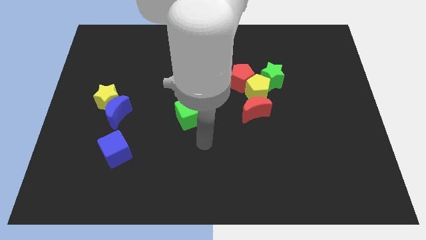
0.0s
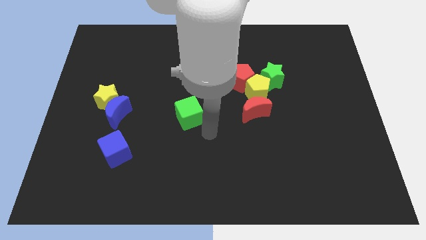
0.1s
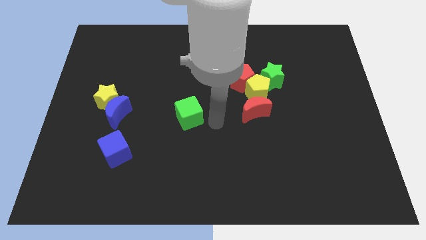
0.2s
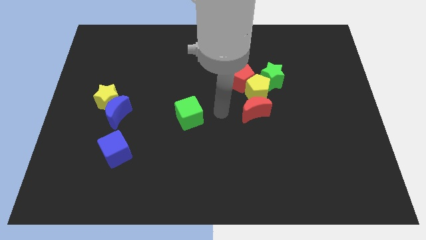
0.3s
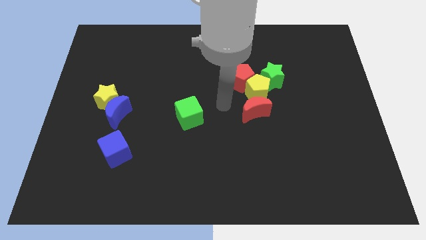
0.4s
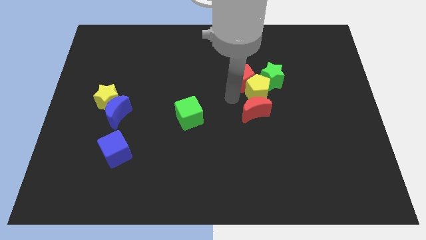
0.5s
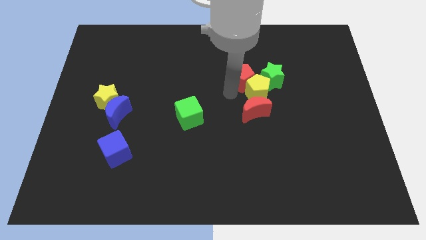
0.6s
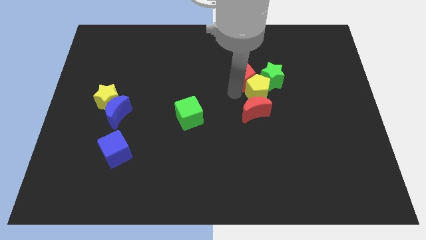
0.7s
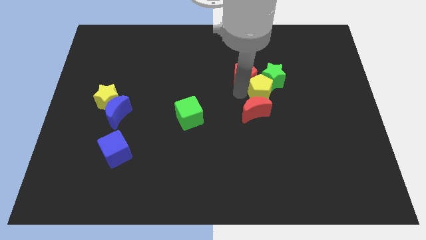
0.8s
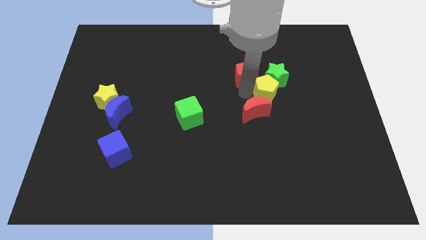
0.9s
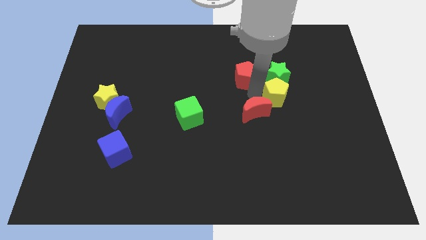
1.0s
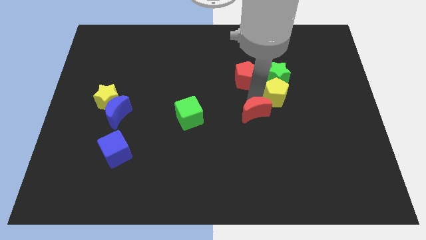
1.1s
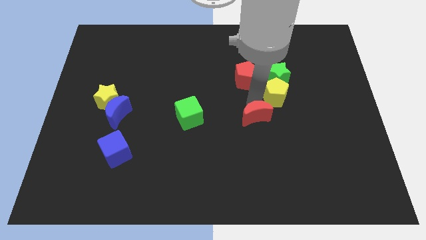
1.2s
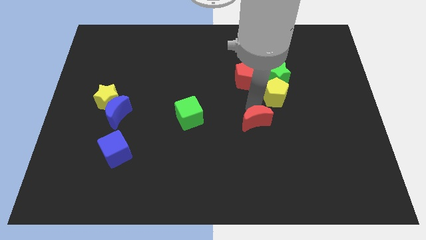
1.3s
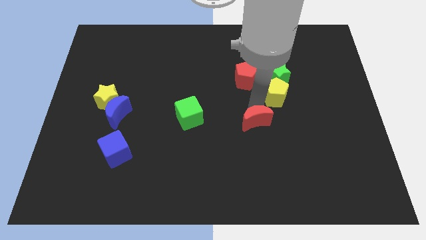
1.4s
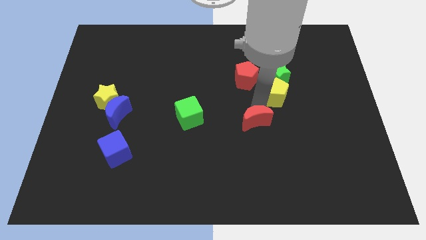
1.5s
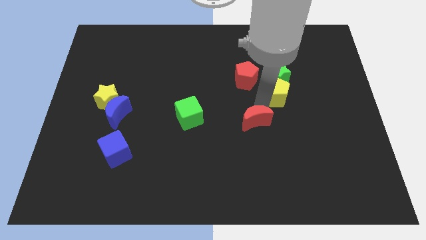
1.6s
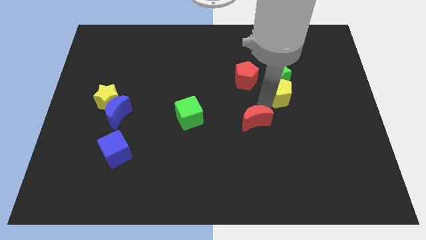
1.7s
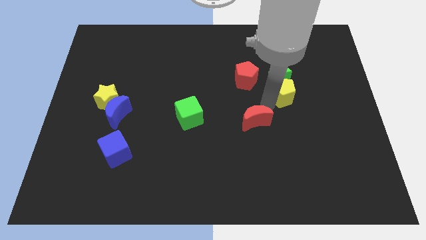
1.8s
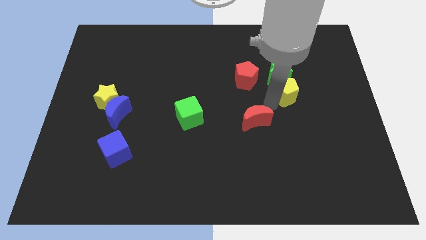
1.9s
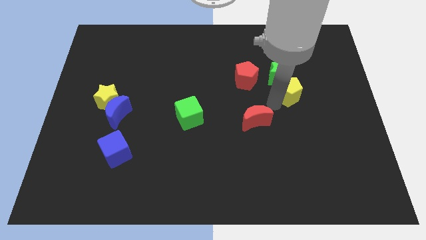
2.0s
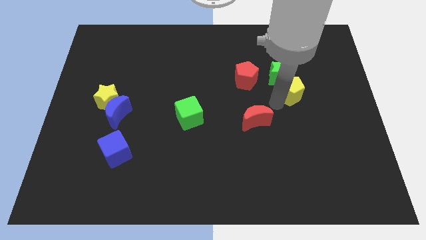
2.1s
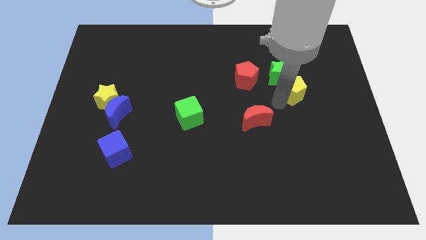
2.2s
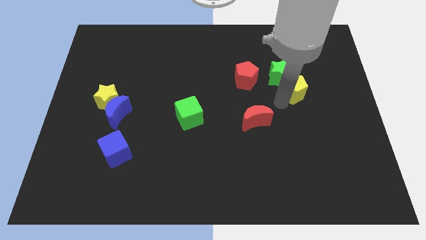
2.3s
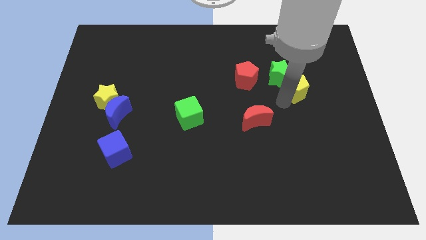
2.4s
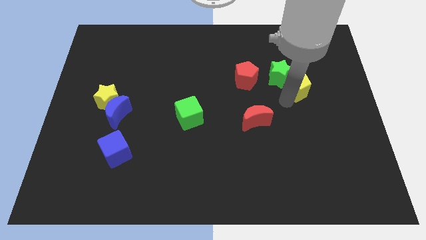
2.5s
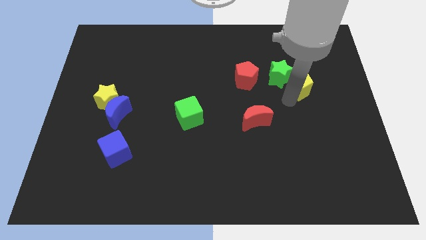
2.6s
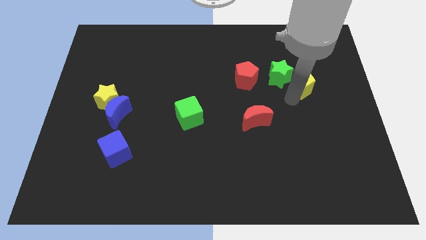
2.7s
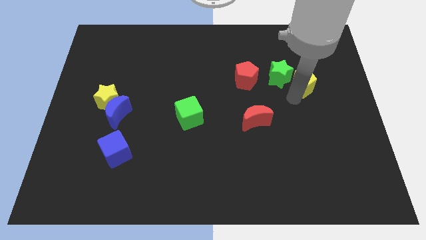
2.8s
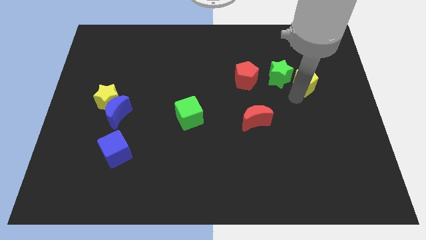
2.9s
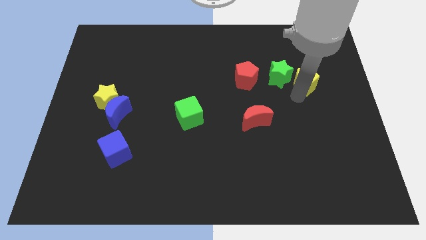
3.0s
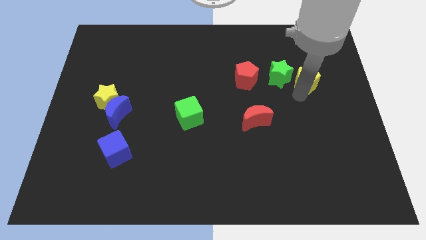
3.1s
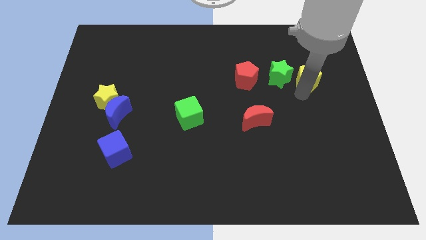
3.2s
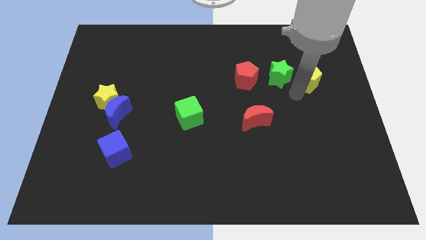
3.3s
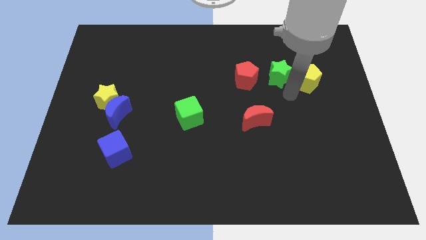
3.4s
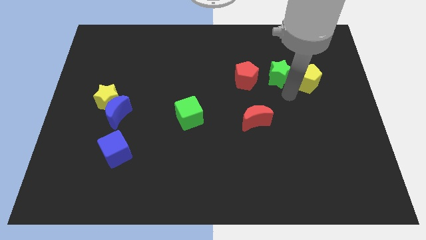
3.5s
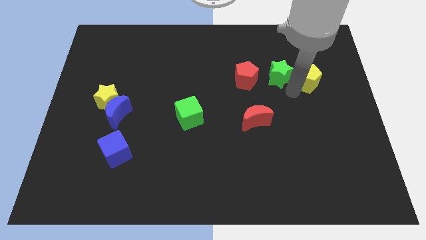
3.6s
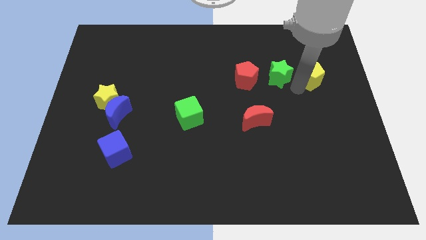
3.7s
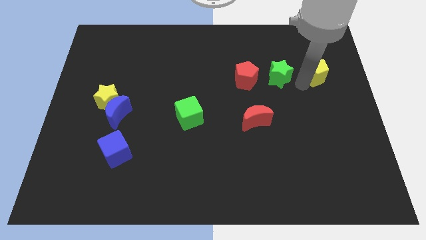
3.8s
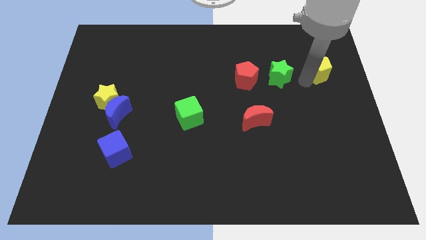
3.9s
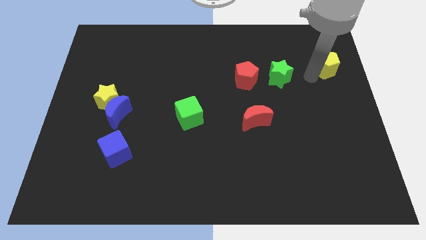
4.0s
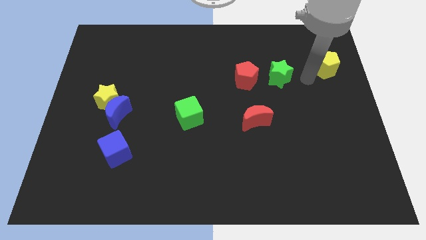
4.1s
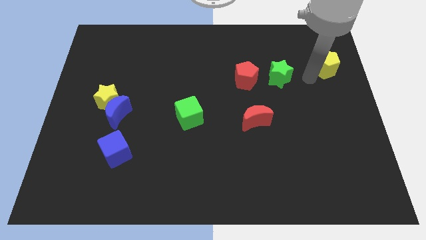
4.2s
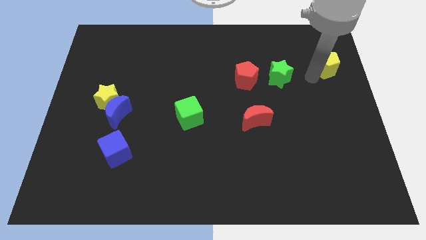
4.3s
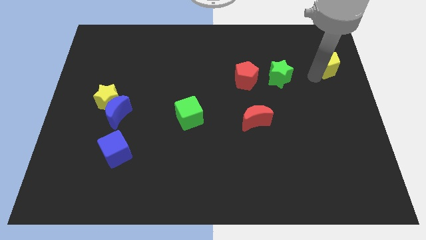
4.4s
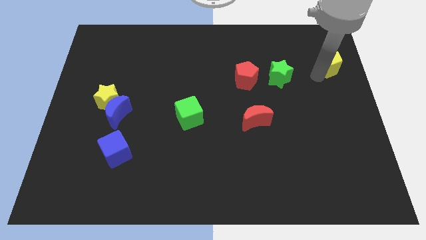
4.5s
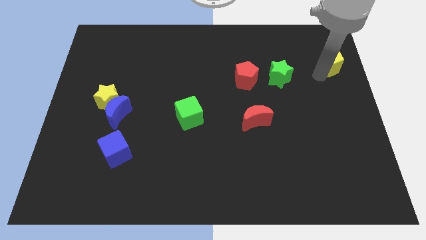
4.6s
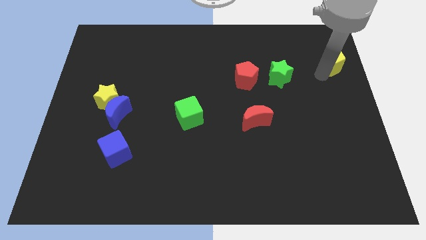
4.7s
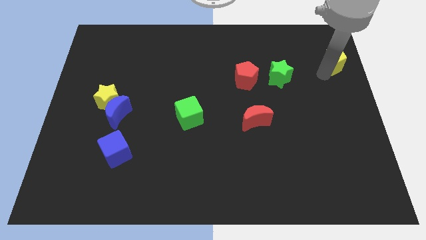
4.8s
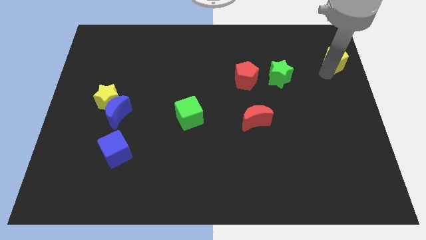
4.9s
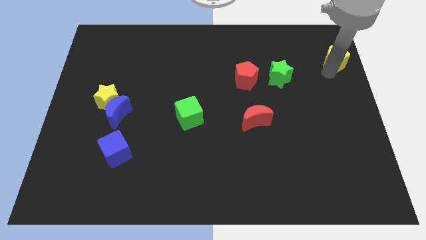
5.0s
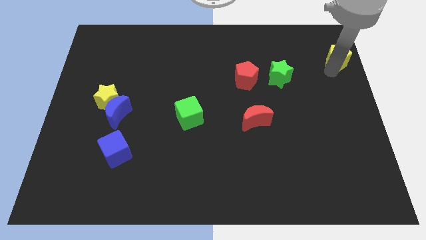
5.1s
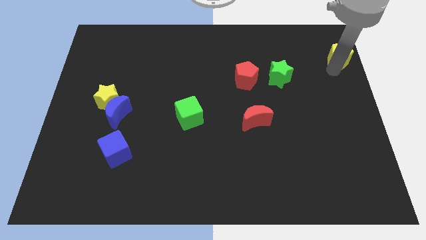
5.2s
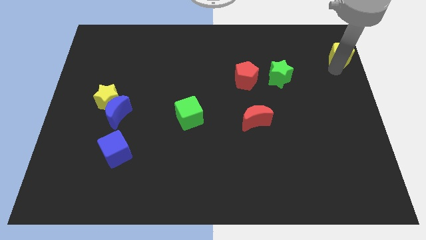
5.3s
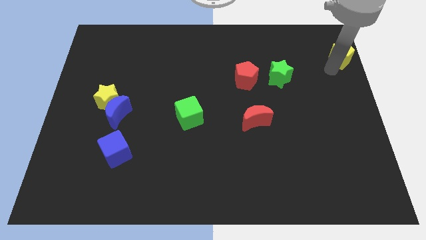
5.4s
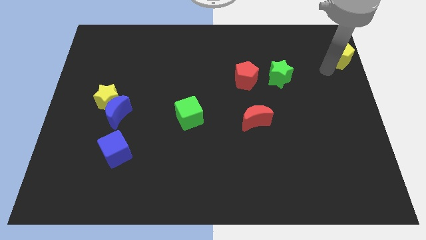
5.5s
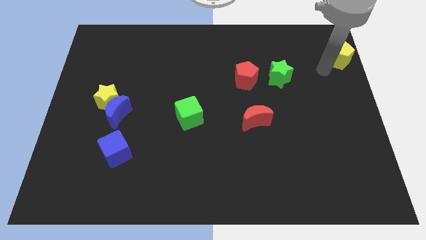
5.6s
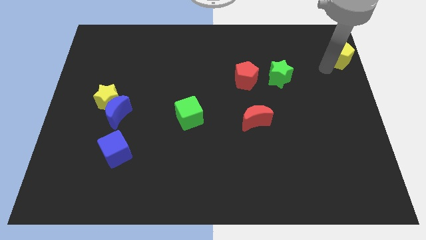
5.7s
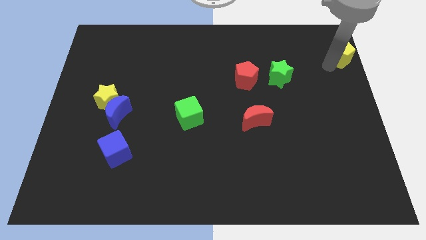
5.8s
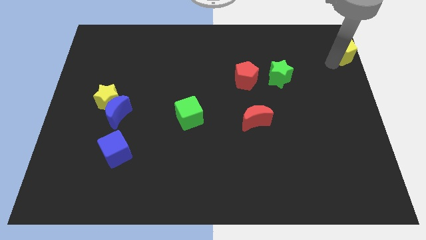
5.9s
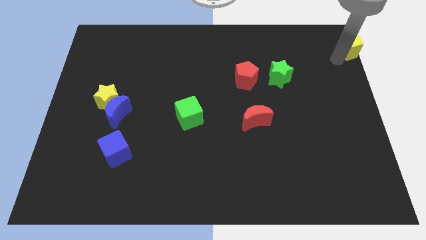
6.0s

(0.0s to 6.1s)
put the yellow pentagon to the upper right corner

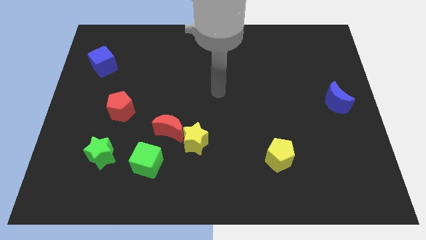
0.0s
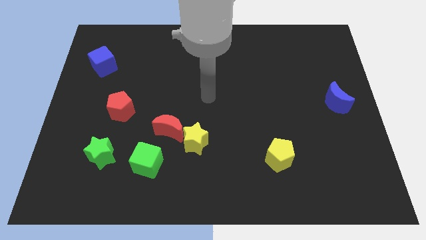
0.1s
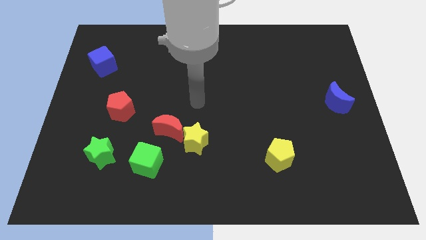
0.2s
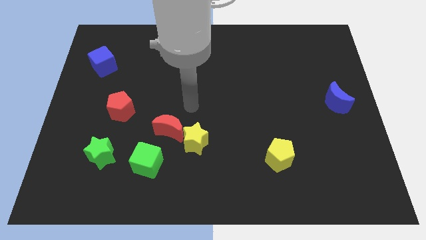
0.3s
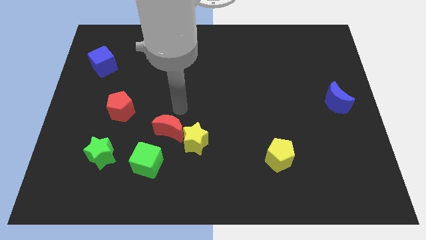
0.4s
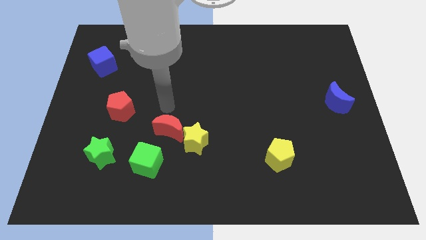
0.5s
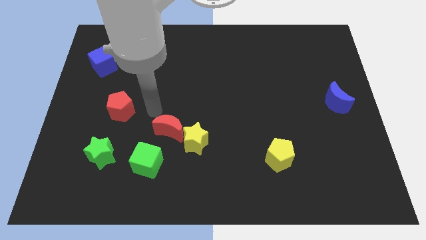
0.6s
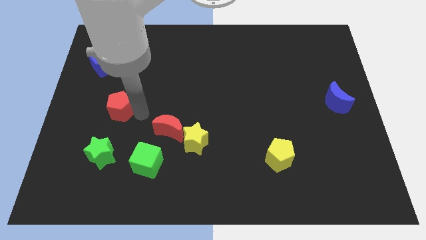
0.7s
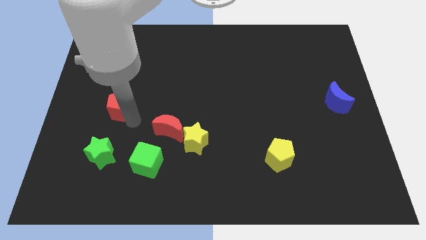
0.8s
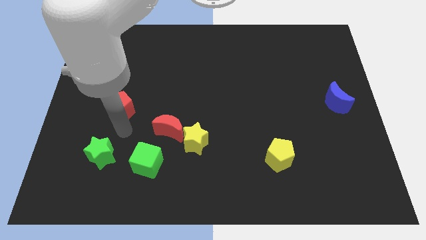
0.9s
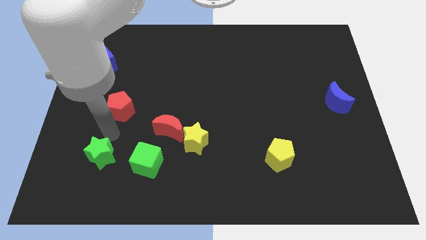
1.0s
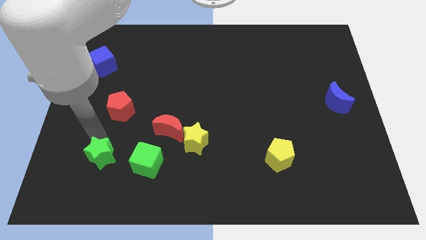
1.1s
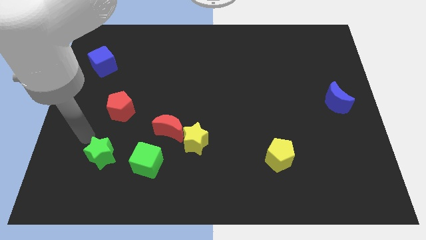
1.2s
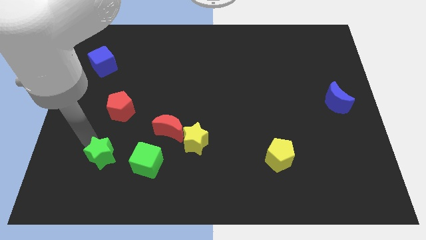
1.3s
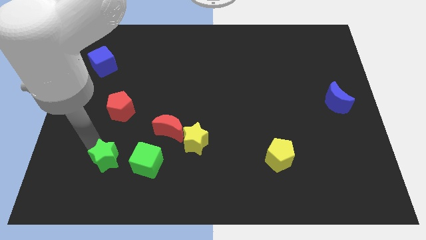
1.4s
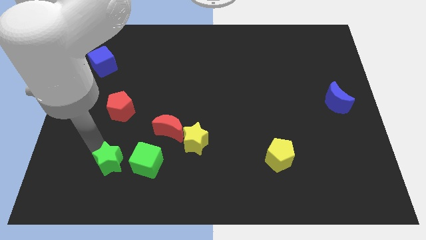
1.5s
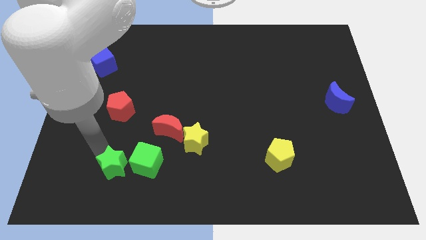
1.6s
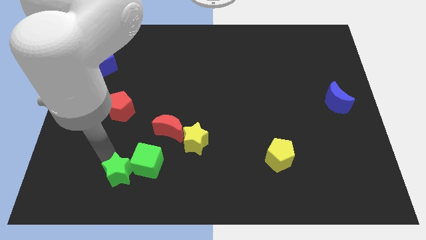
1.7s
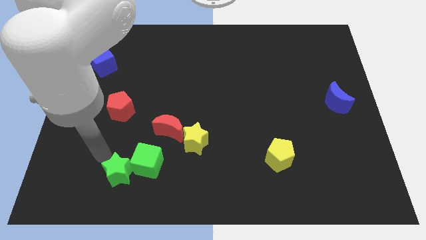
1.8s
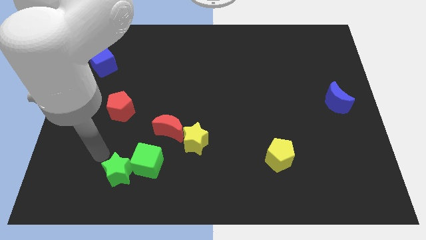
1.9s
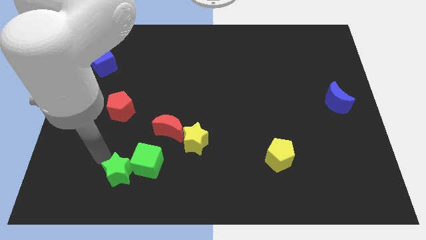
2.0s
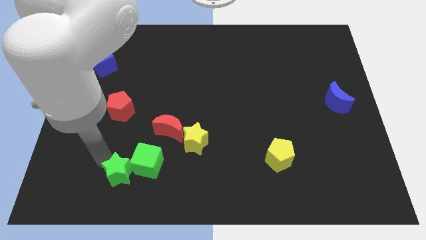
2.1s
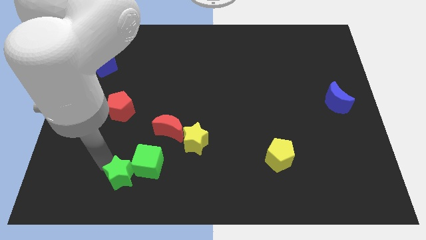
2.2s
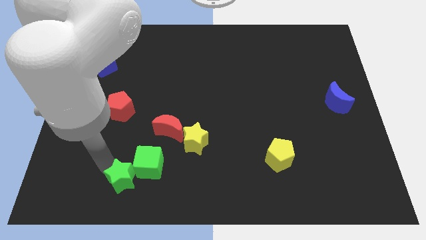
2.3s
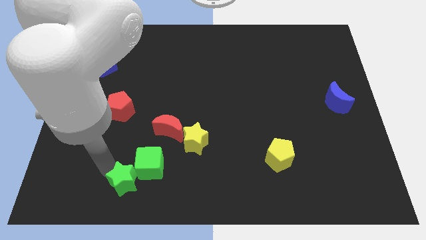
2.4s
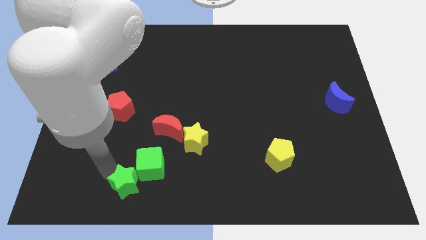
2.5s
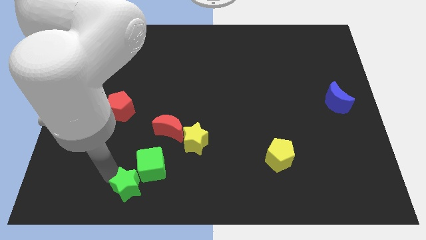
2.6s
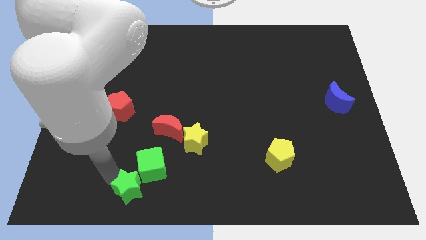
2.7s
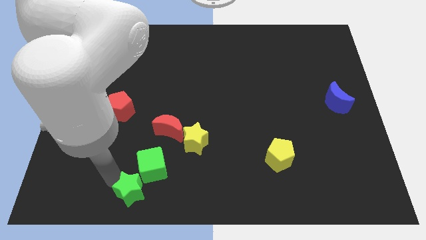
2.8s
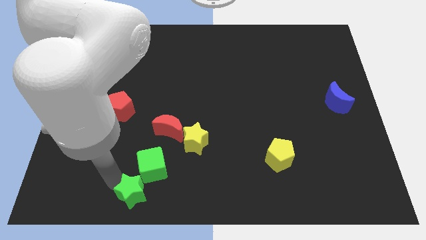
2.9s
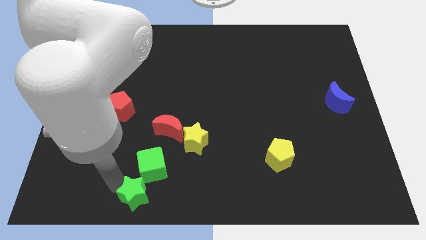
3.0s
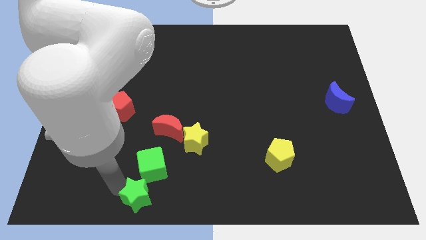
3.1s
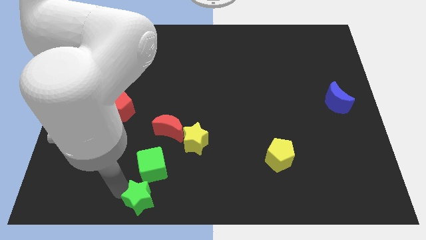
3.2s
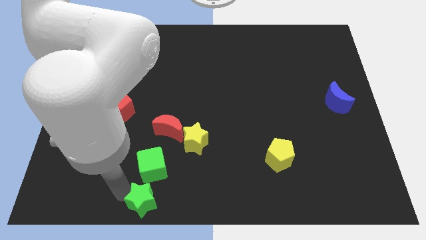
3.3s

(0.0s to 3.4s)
put the green star to the bottom side
